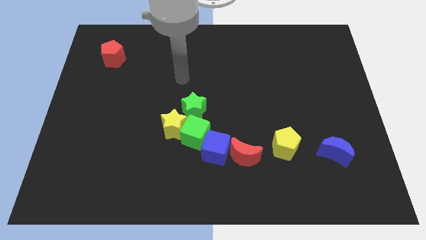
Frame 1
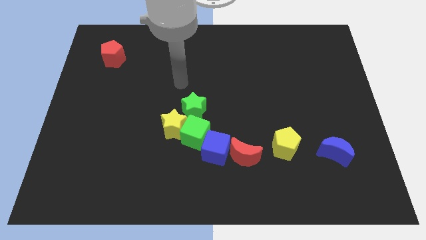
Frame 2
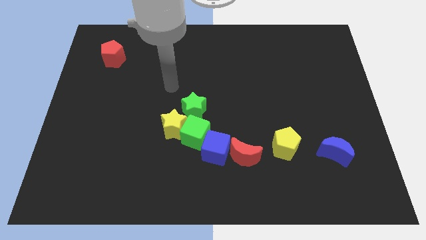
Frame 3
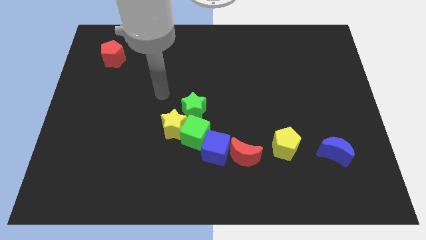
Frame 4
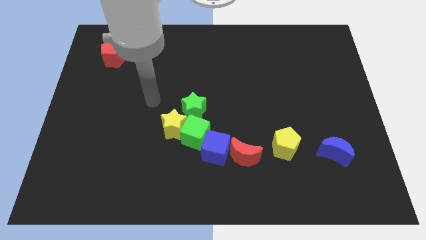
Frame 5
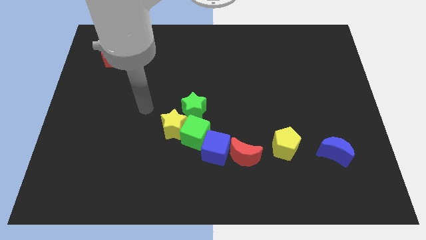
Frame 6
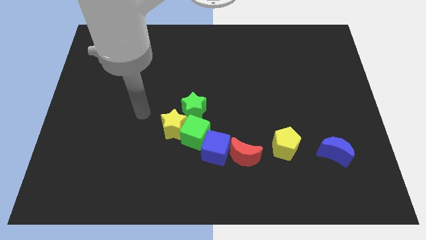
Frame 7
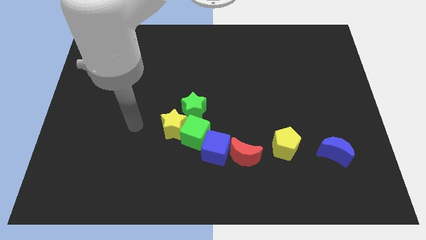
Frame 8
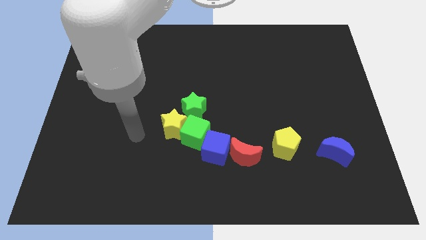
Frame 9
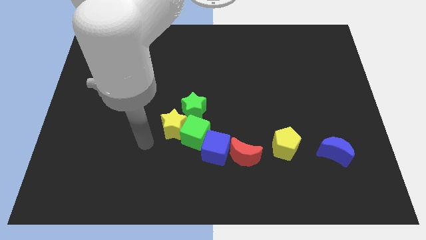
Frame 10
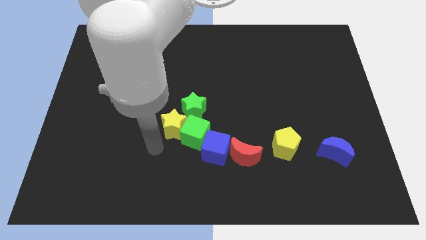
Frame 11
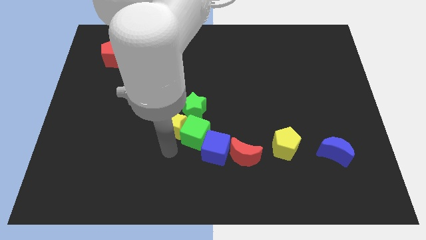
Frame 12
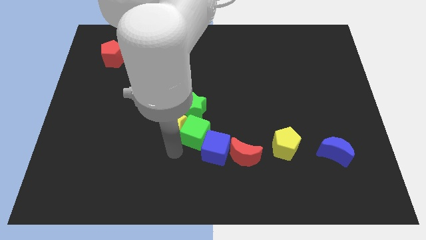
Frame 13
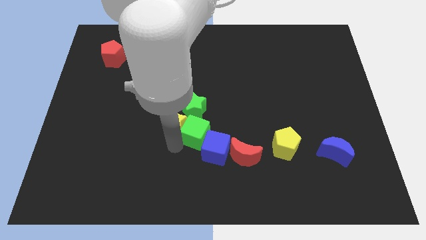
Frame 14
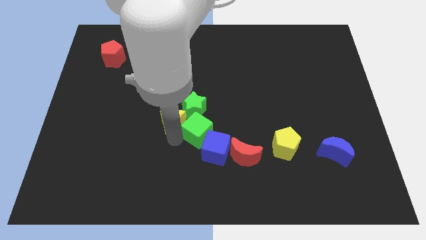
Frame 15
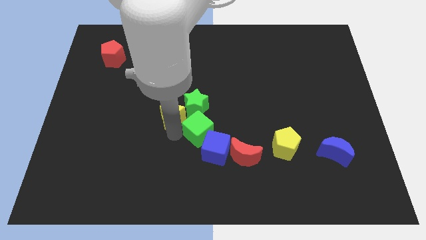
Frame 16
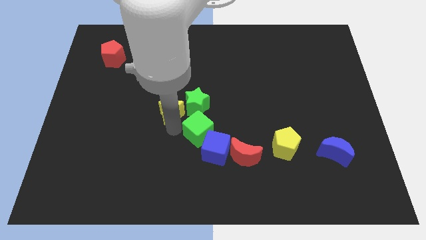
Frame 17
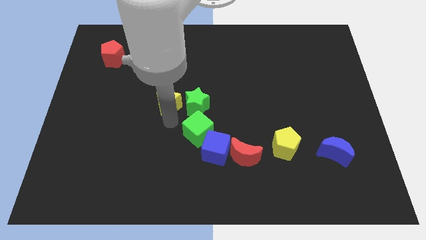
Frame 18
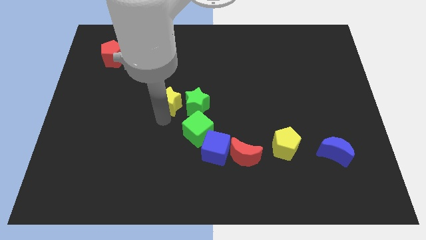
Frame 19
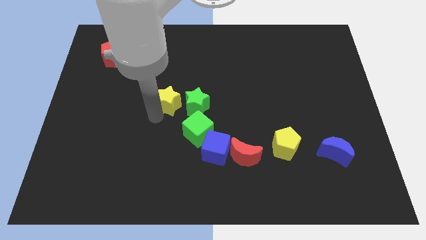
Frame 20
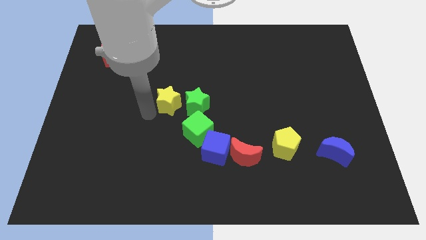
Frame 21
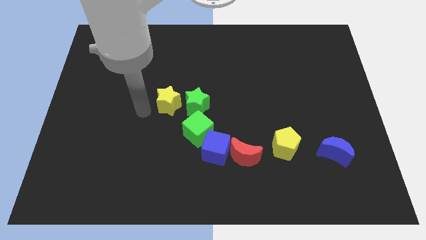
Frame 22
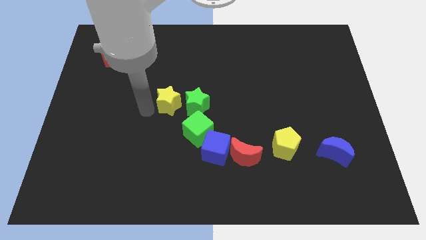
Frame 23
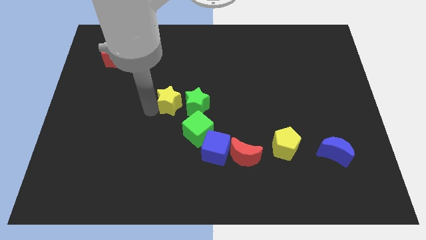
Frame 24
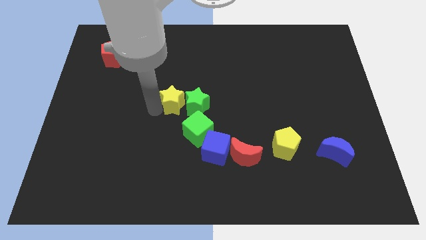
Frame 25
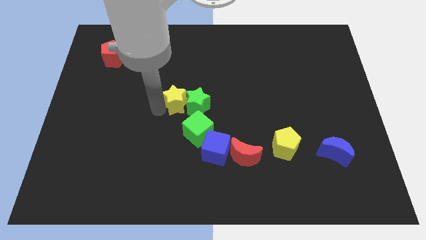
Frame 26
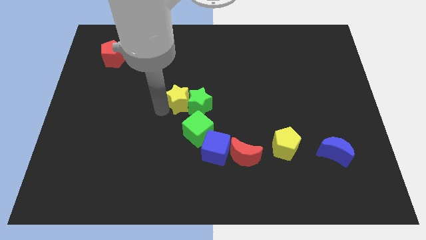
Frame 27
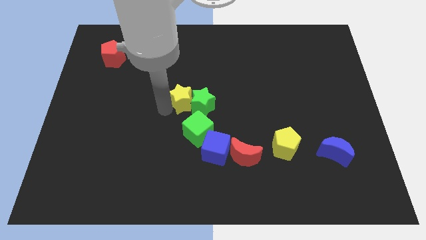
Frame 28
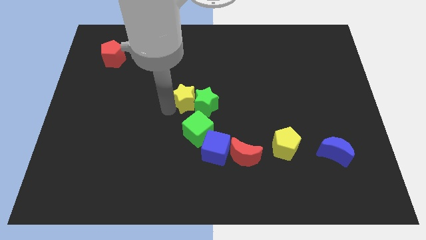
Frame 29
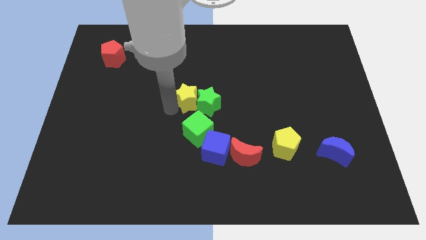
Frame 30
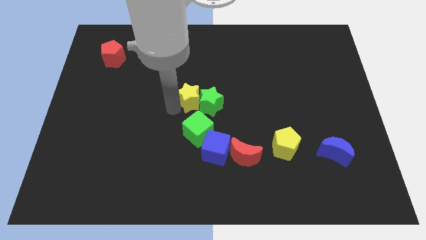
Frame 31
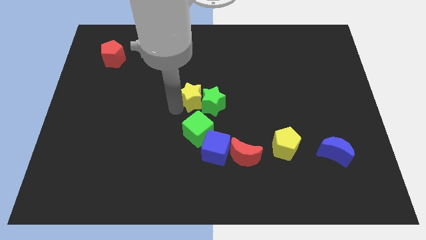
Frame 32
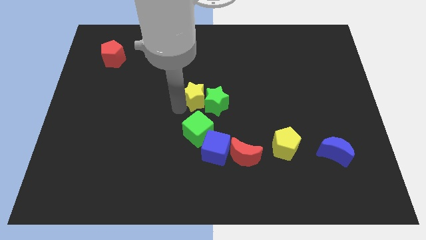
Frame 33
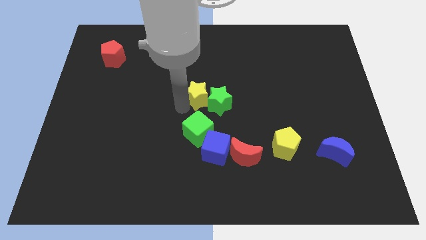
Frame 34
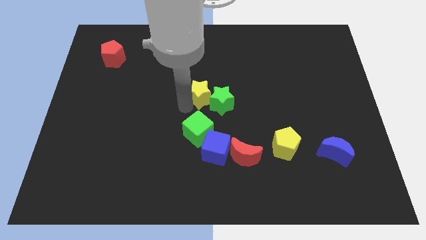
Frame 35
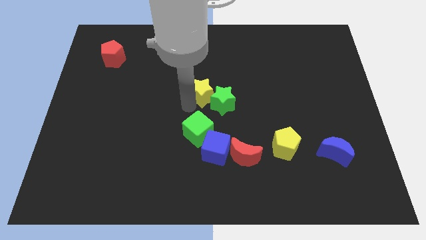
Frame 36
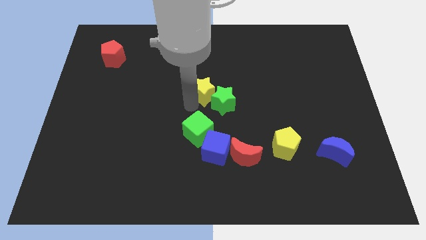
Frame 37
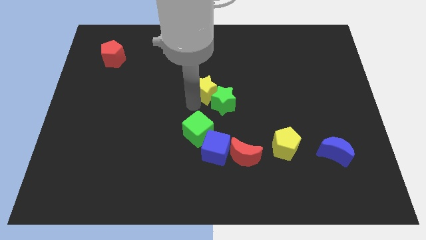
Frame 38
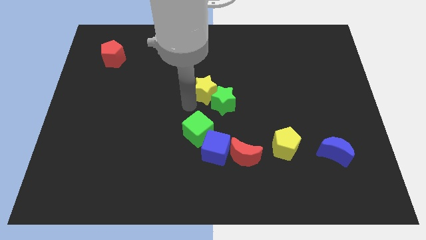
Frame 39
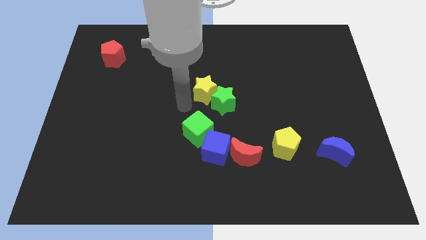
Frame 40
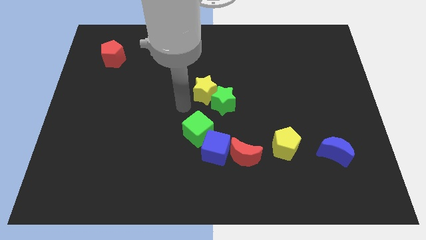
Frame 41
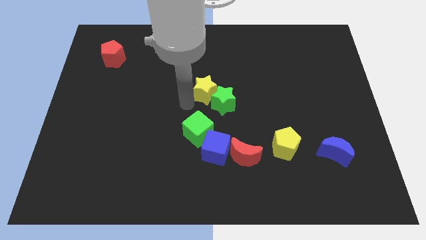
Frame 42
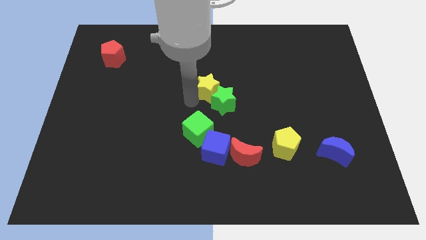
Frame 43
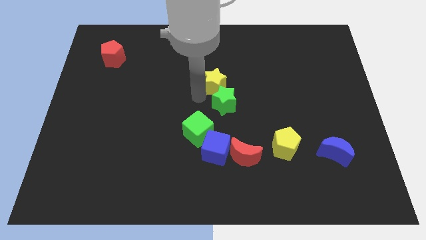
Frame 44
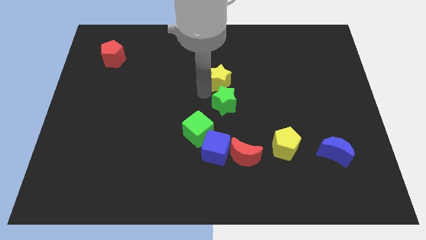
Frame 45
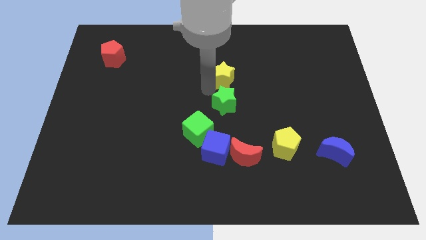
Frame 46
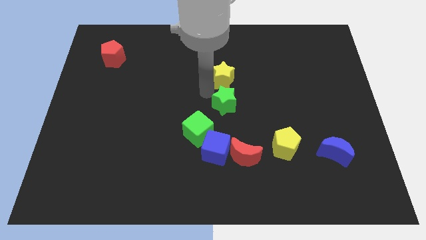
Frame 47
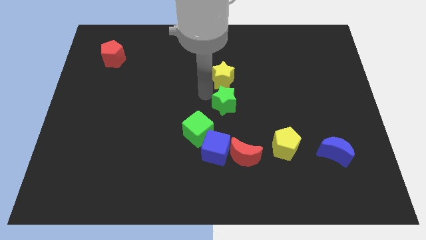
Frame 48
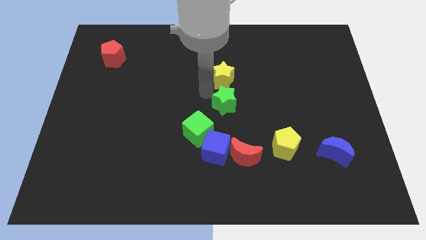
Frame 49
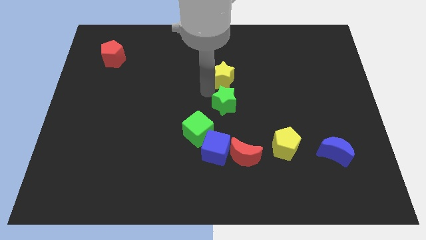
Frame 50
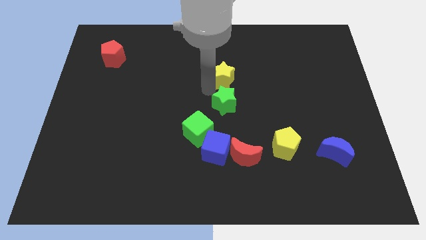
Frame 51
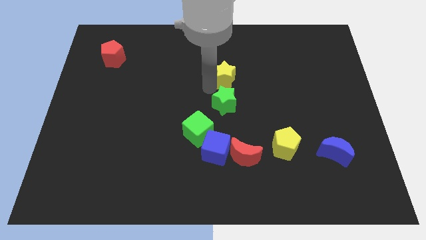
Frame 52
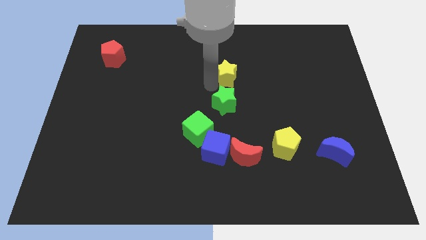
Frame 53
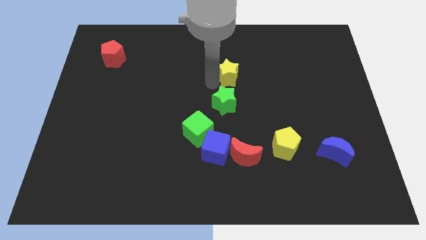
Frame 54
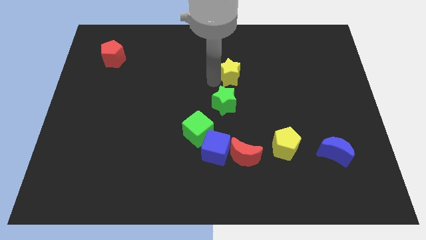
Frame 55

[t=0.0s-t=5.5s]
move the yellow star up and to the right diagonally

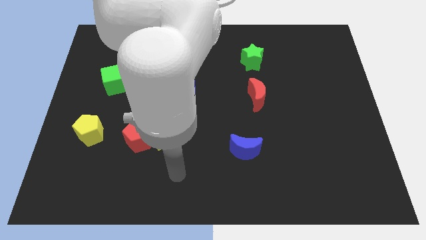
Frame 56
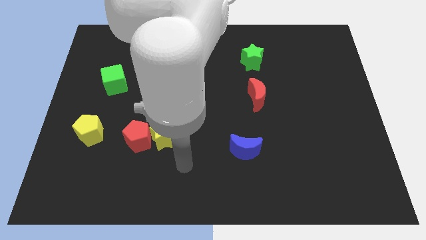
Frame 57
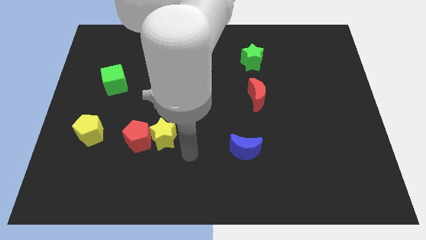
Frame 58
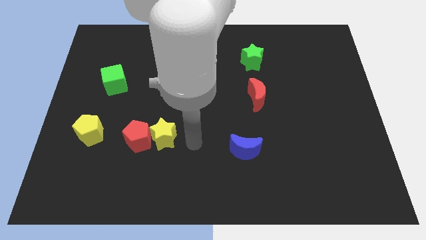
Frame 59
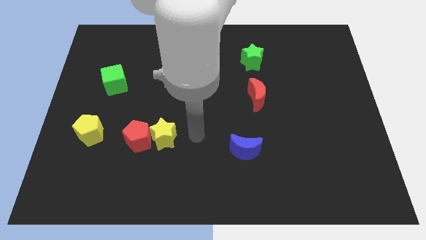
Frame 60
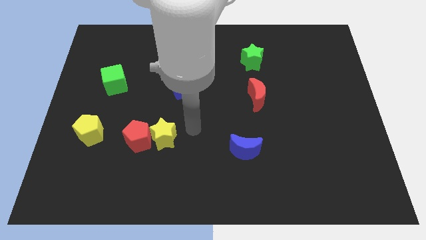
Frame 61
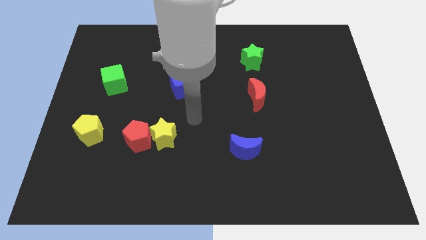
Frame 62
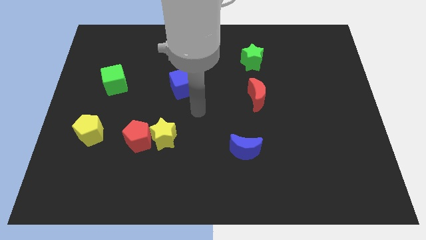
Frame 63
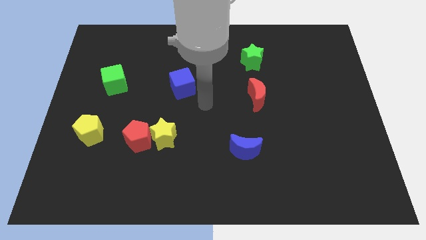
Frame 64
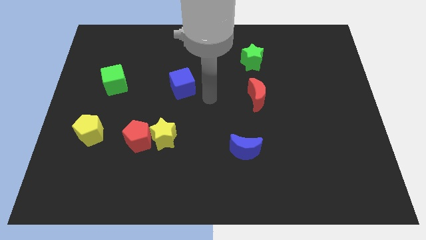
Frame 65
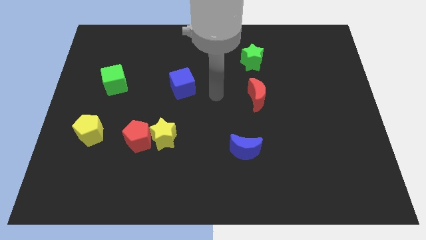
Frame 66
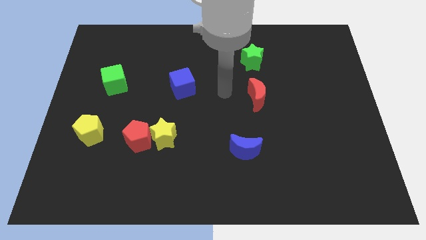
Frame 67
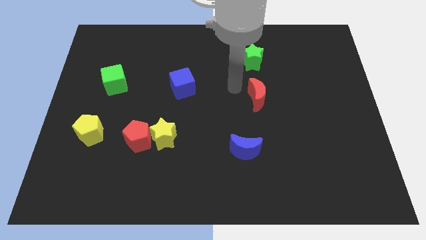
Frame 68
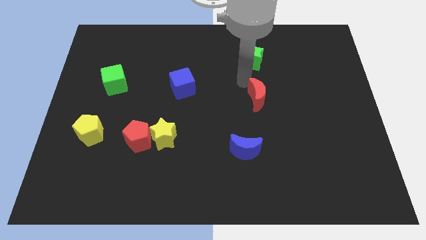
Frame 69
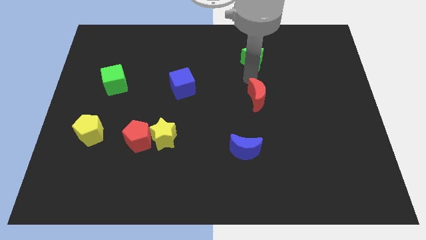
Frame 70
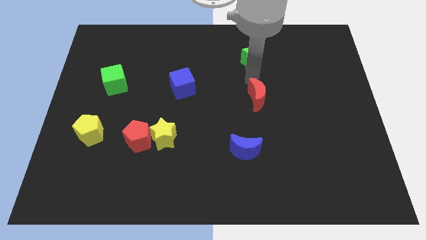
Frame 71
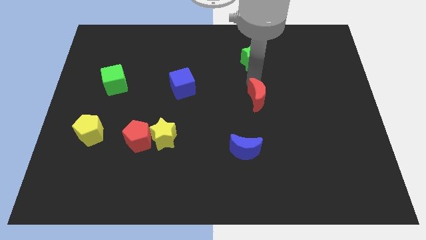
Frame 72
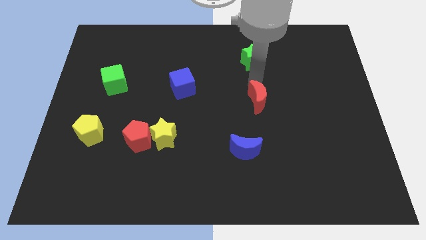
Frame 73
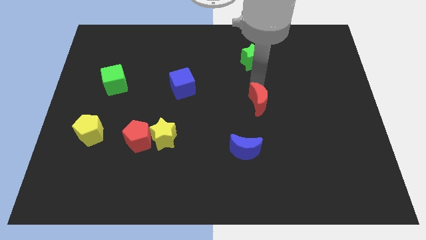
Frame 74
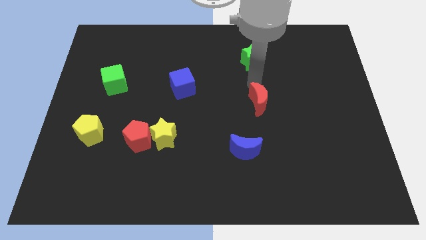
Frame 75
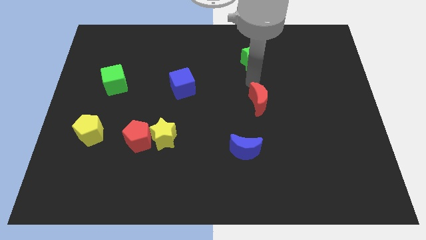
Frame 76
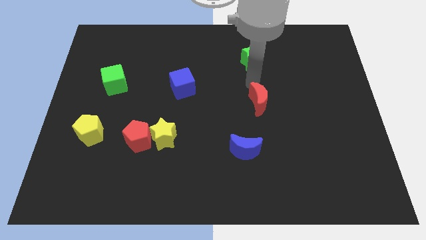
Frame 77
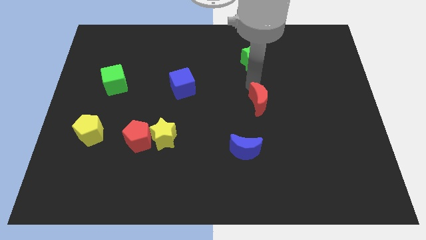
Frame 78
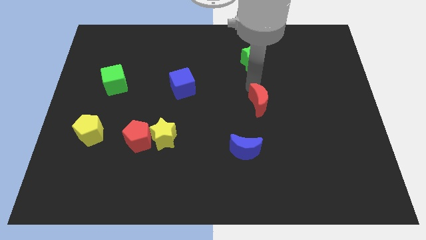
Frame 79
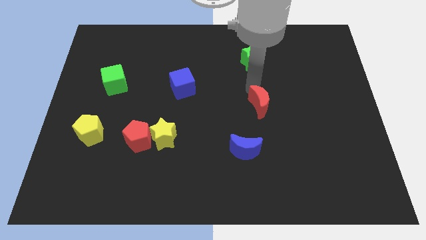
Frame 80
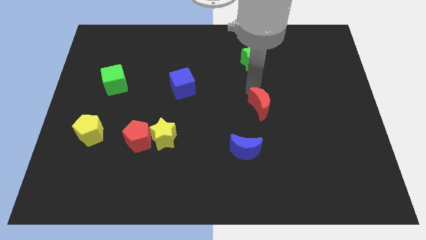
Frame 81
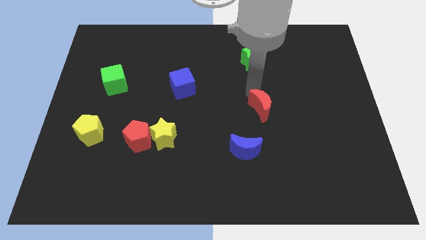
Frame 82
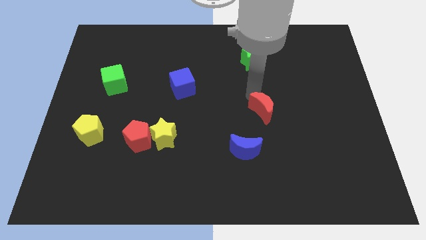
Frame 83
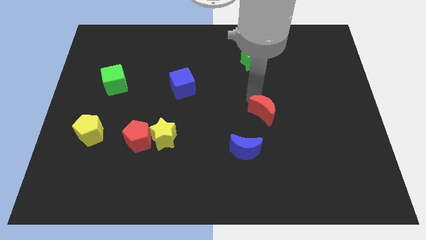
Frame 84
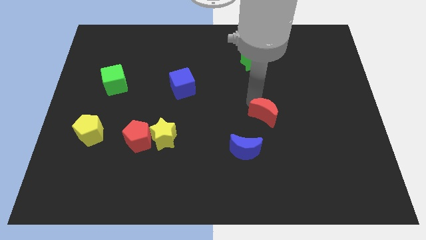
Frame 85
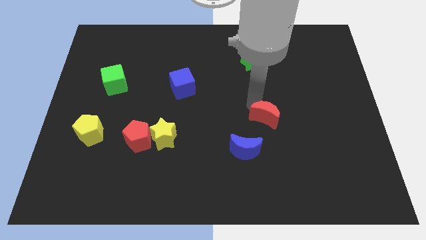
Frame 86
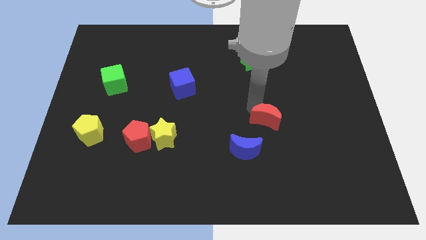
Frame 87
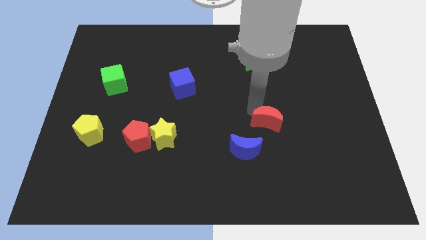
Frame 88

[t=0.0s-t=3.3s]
slide the red moon a little downwards
